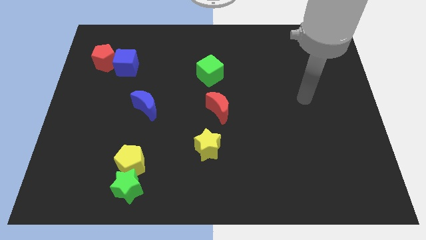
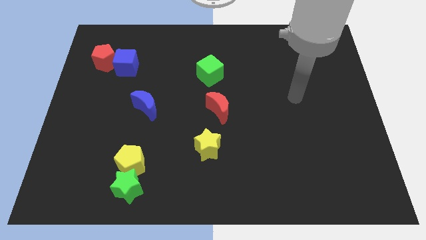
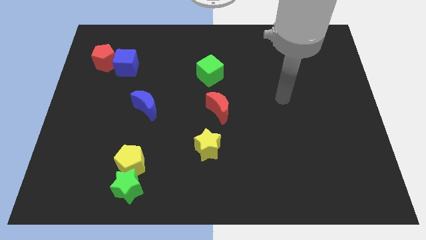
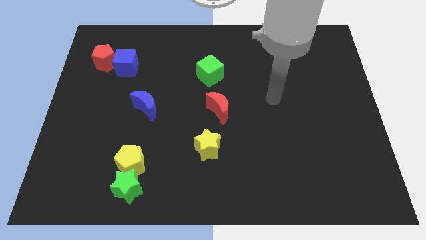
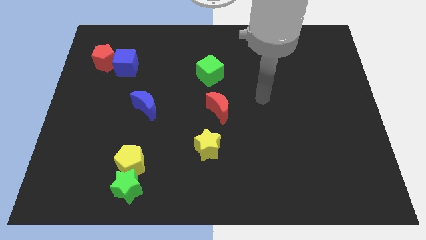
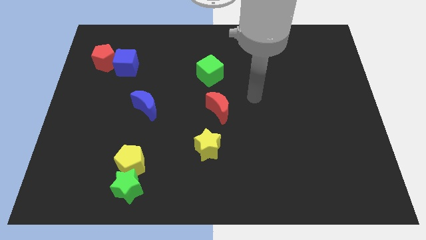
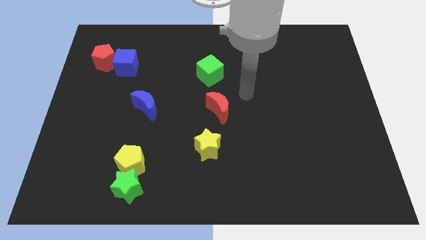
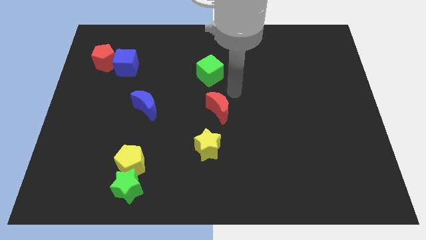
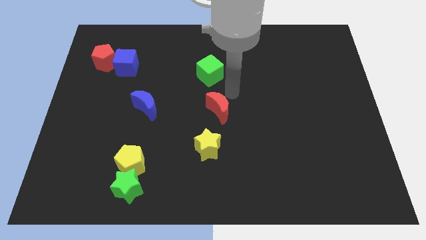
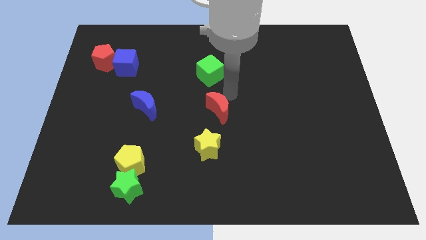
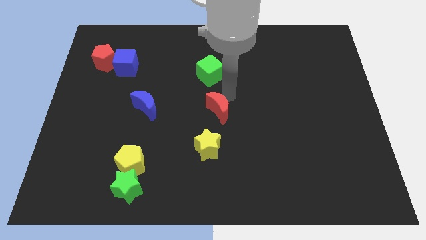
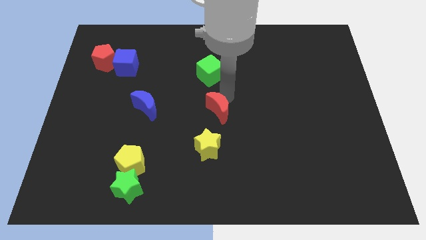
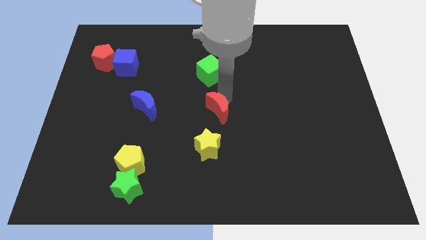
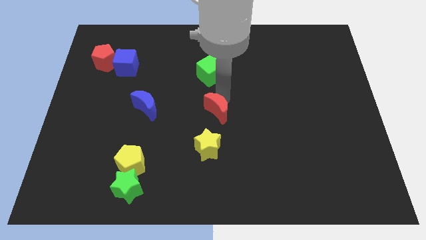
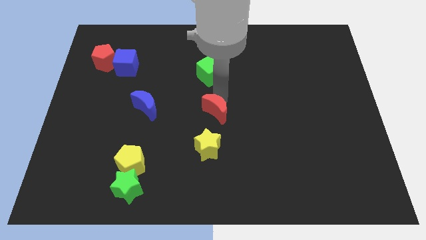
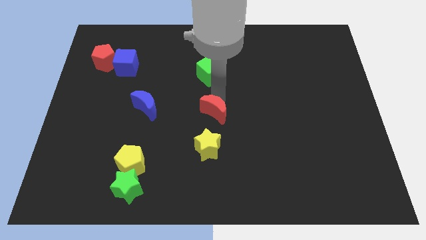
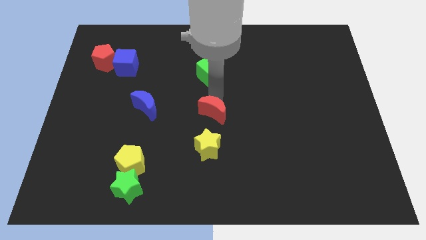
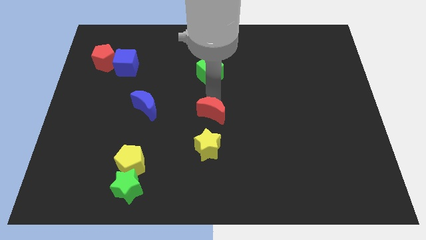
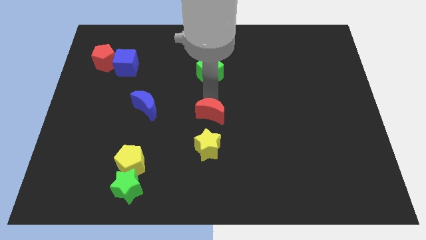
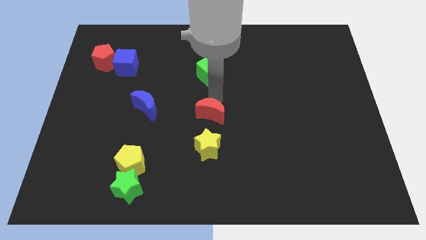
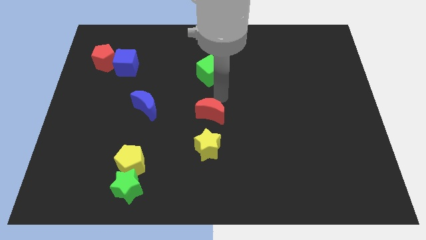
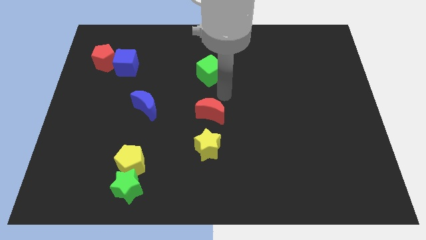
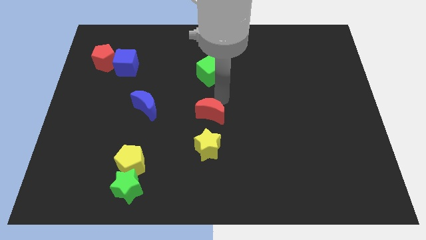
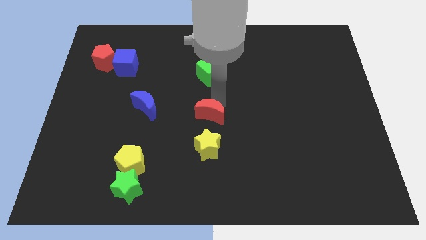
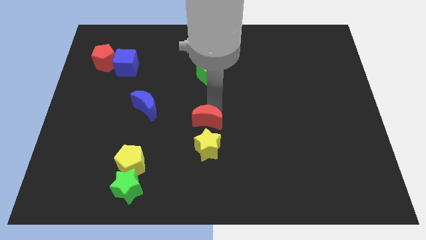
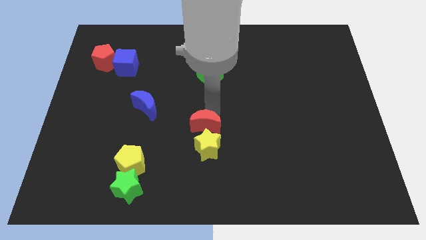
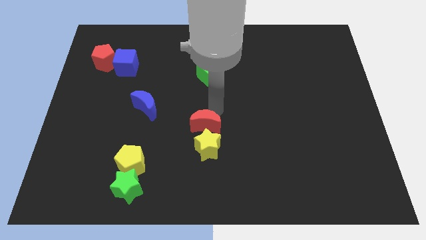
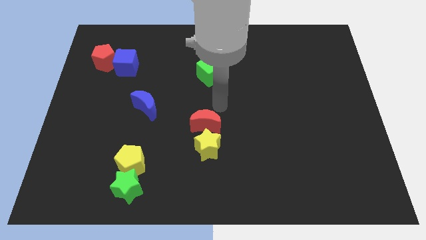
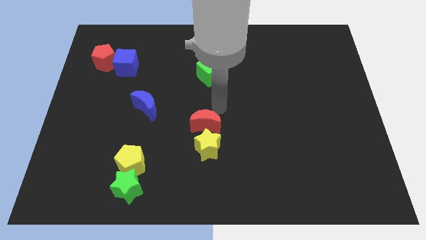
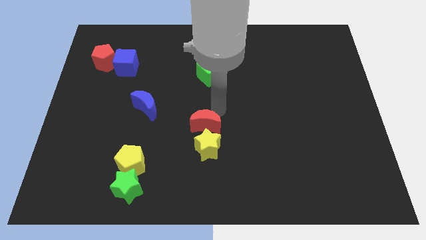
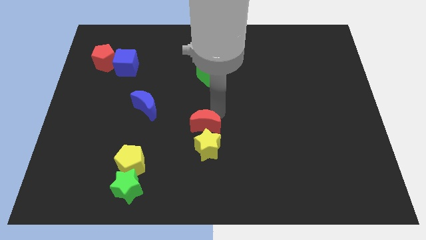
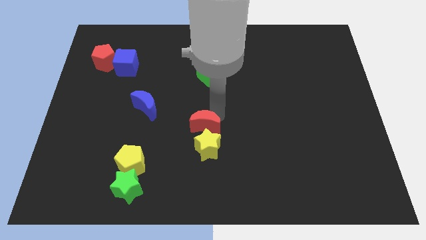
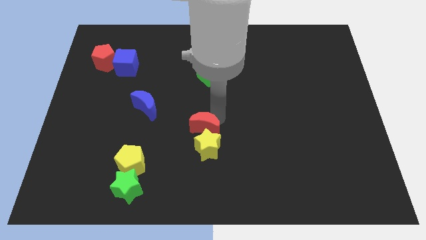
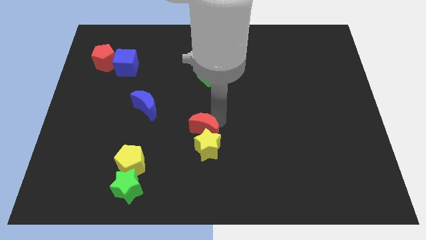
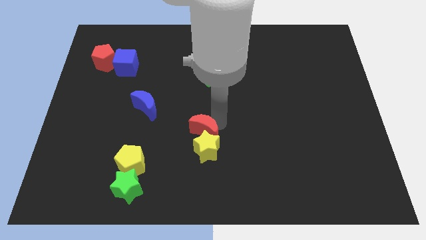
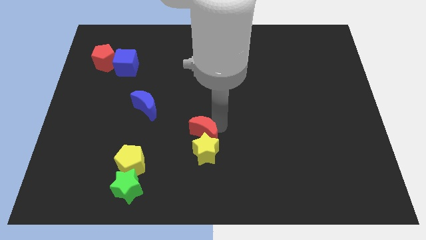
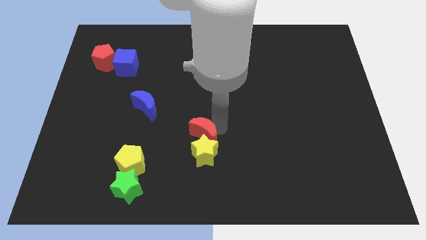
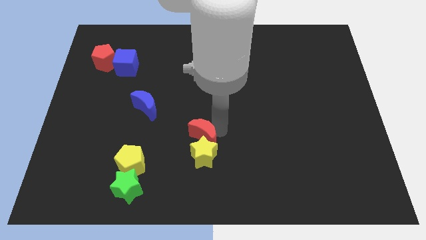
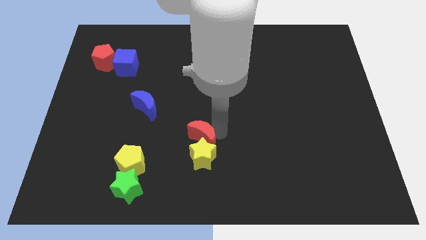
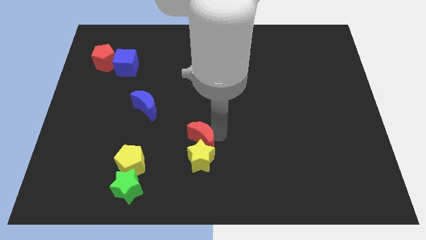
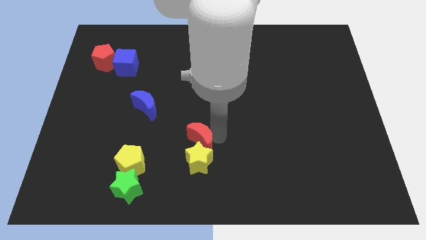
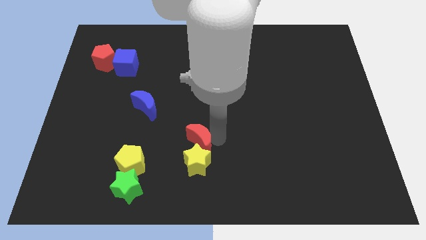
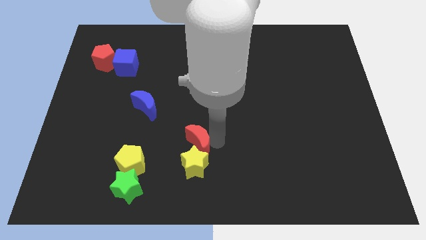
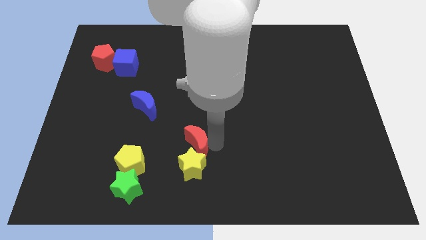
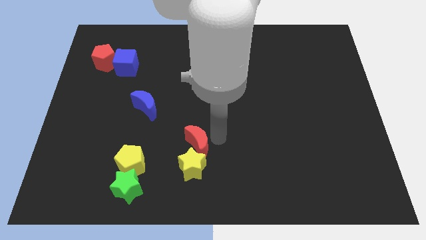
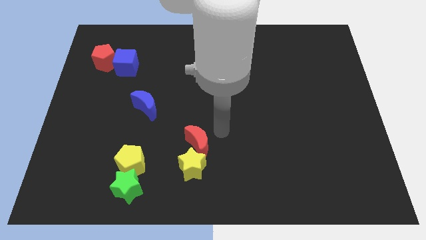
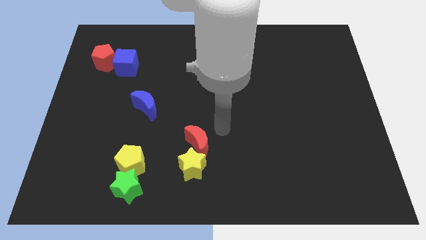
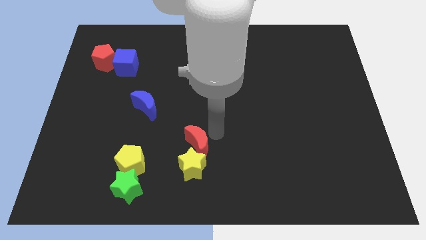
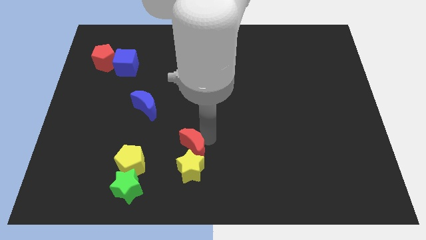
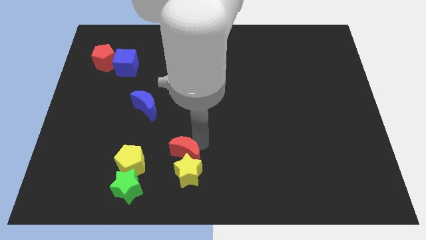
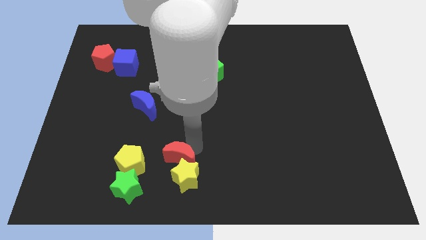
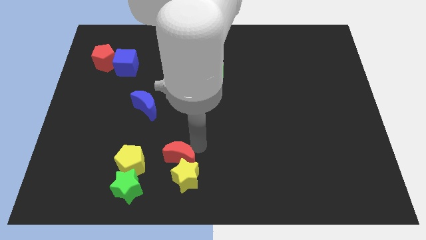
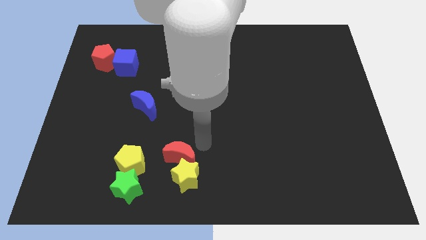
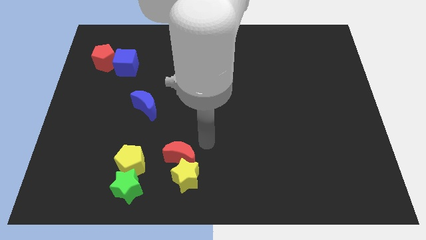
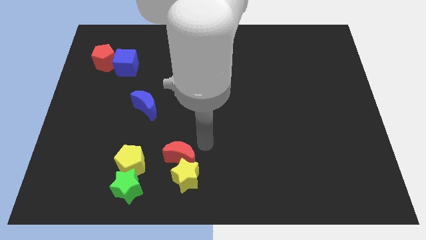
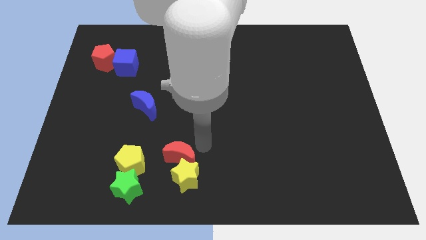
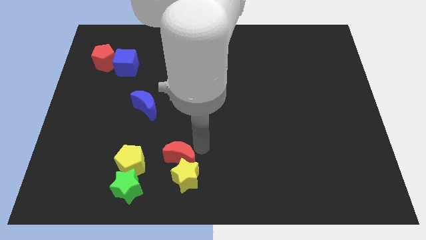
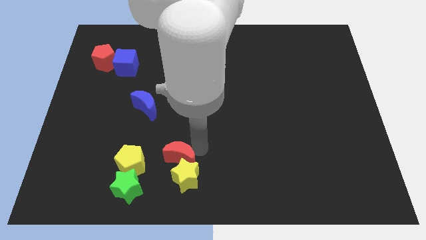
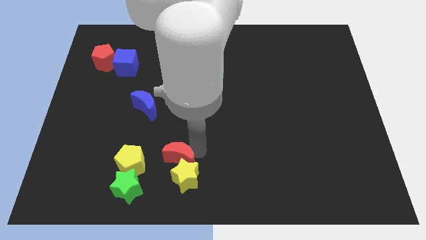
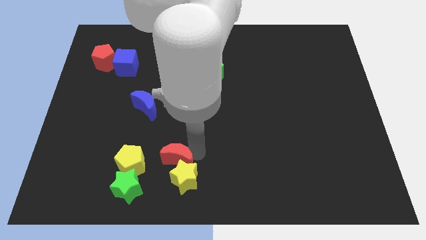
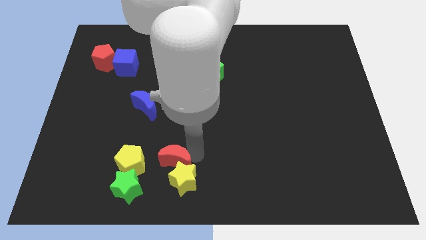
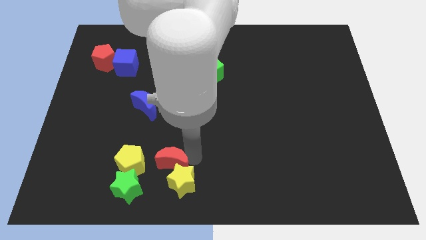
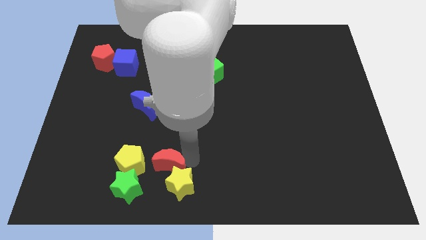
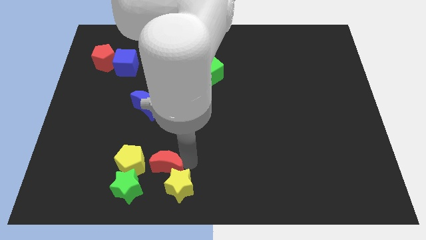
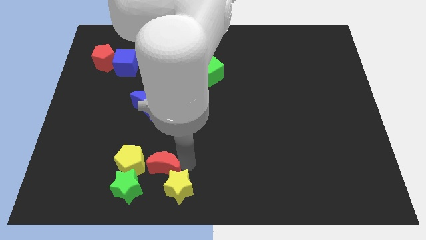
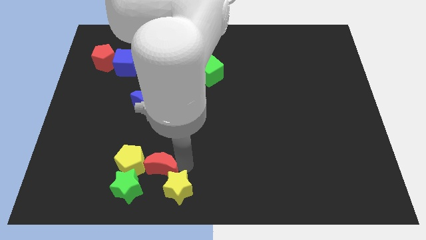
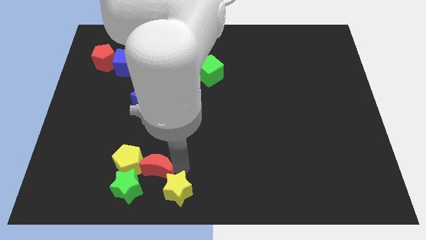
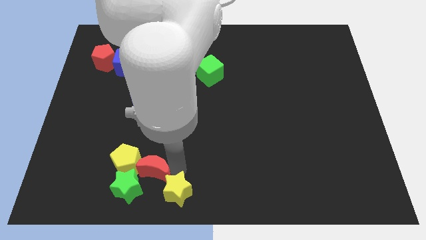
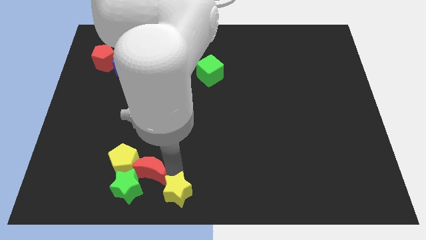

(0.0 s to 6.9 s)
push the red moon close to the green star

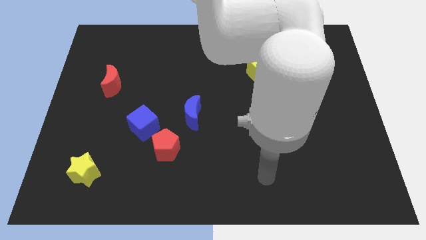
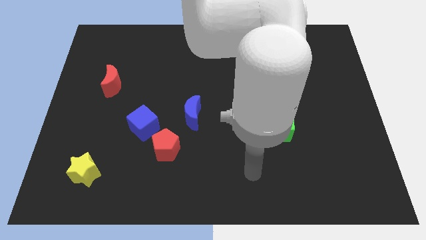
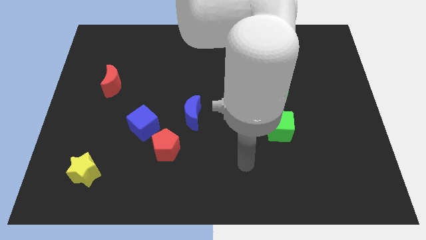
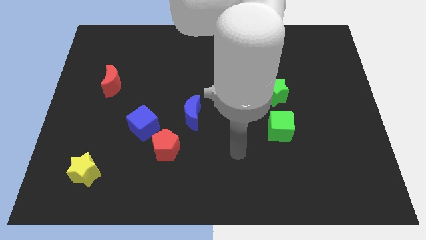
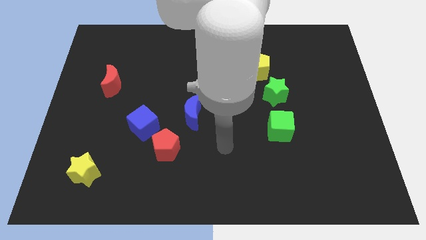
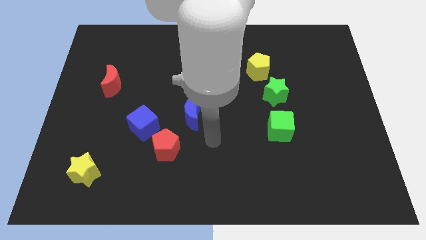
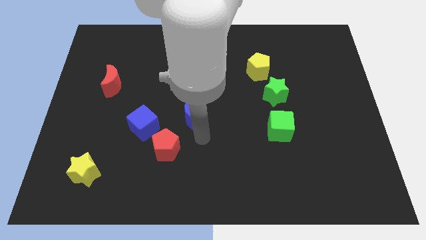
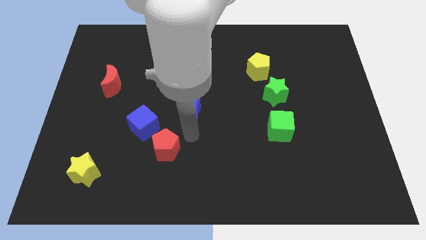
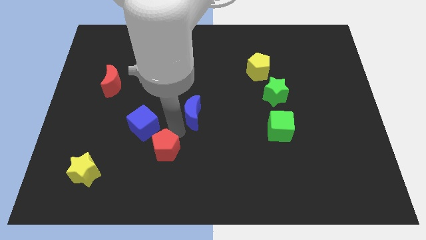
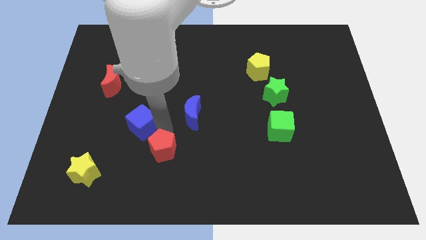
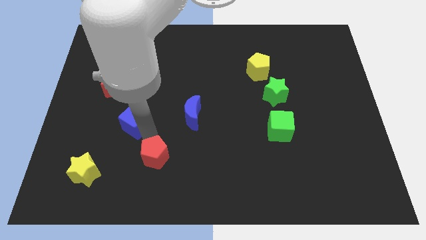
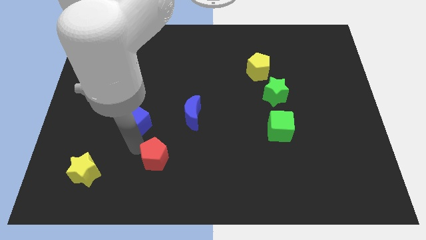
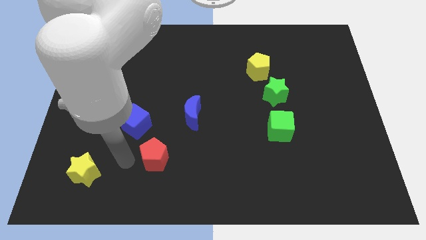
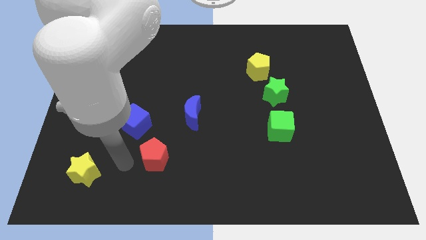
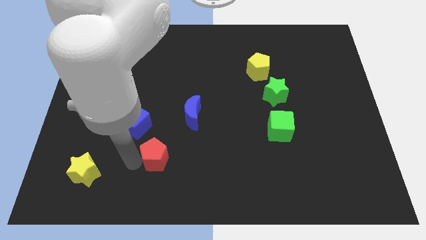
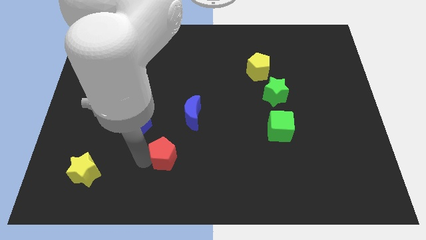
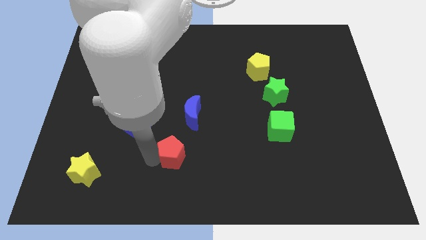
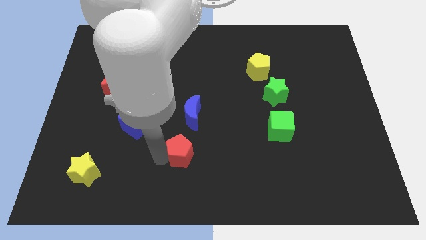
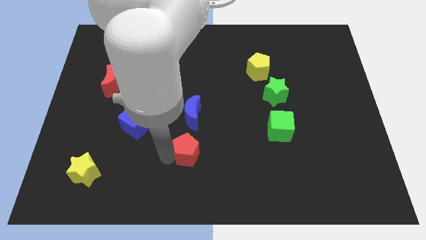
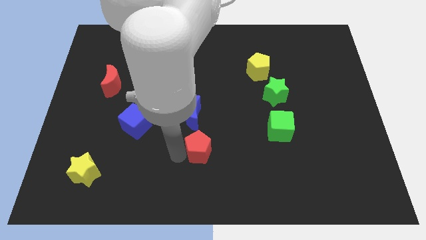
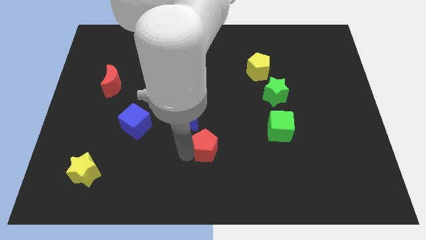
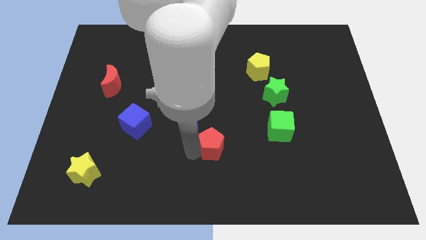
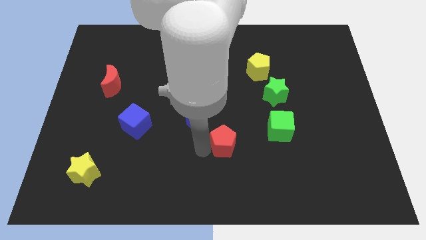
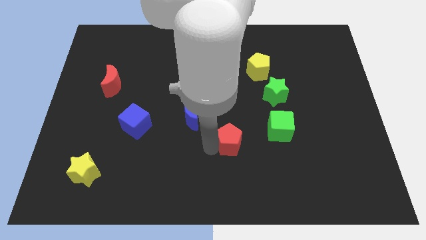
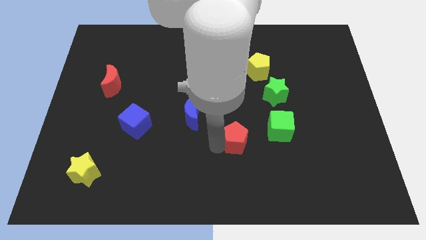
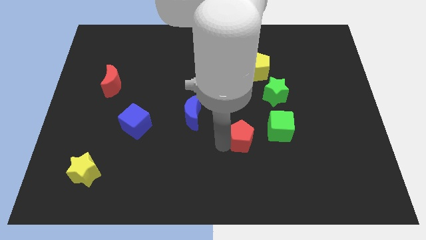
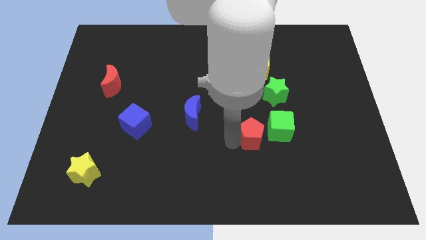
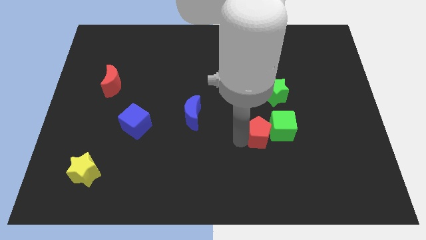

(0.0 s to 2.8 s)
put the red pentagon close to the green cube
